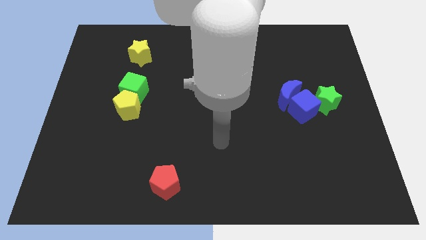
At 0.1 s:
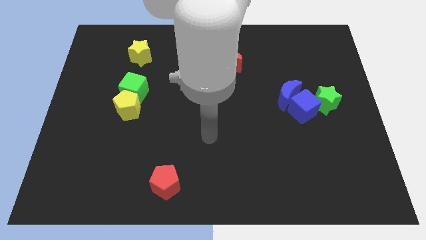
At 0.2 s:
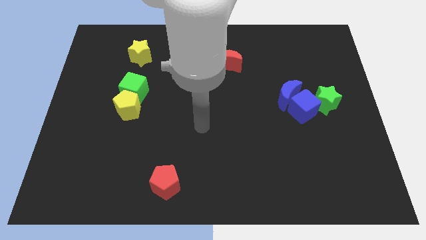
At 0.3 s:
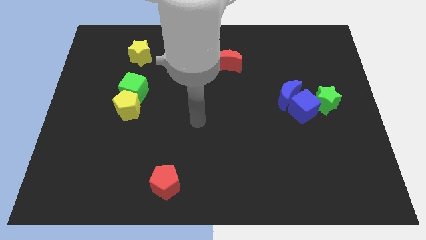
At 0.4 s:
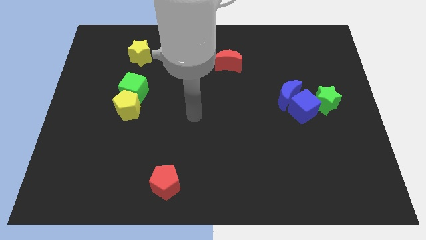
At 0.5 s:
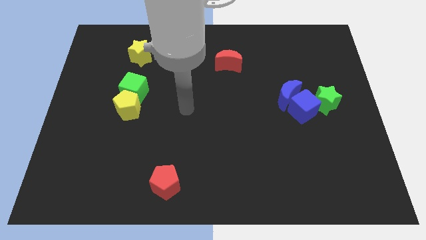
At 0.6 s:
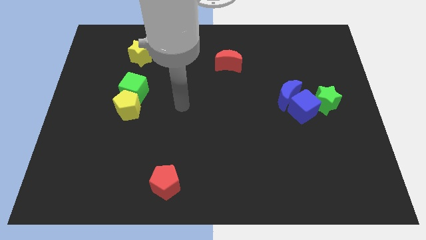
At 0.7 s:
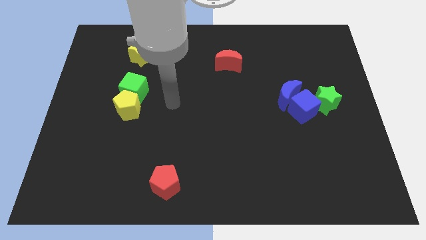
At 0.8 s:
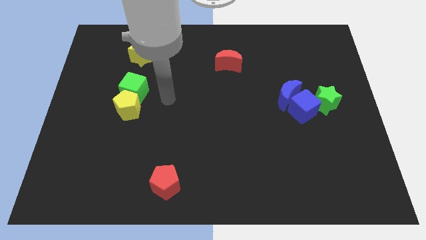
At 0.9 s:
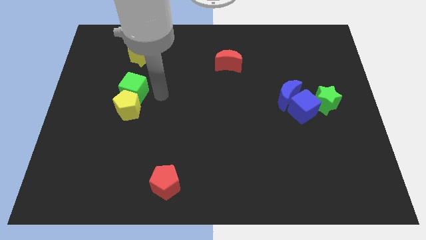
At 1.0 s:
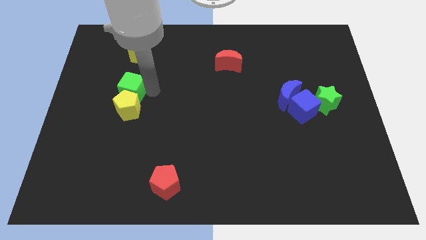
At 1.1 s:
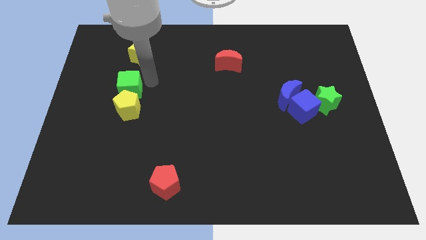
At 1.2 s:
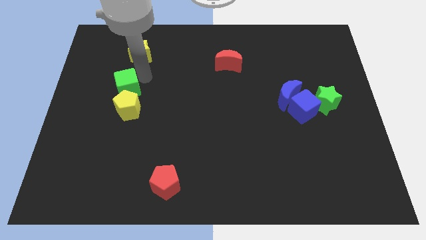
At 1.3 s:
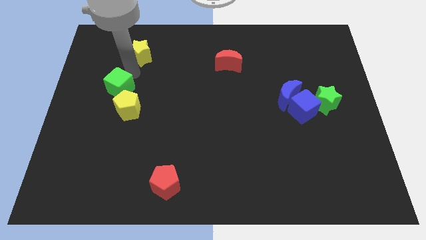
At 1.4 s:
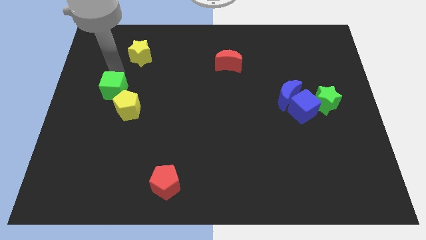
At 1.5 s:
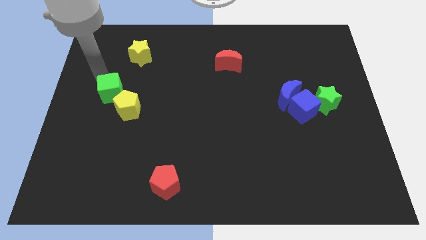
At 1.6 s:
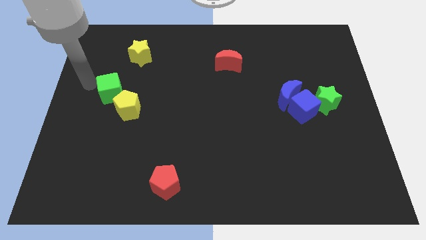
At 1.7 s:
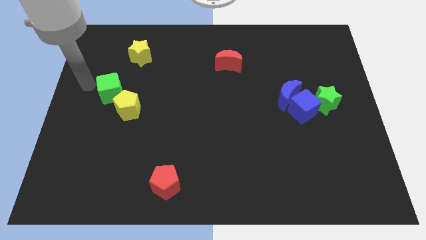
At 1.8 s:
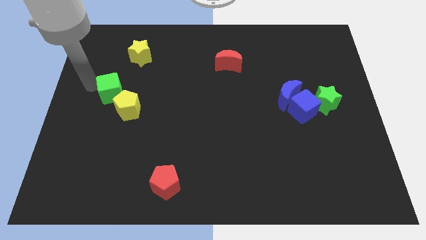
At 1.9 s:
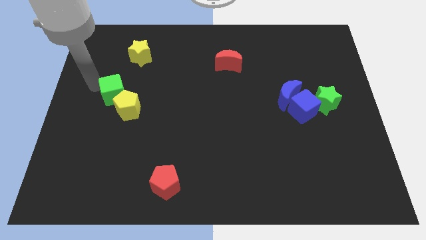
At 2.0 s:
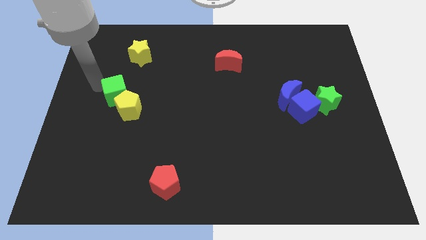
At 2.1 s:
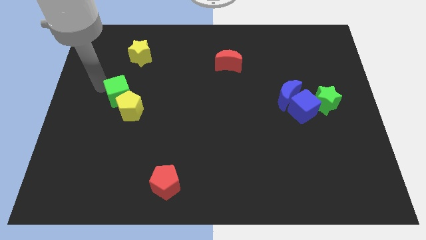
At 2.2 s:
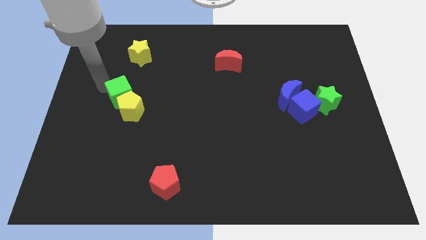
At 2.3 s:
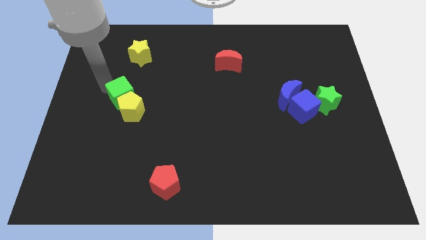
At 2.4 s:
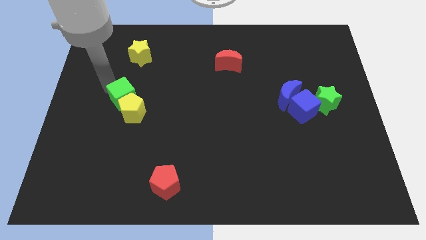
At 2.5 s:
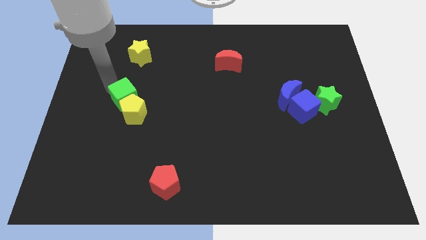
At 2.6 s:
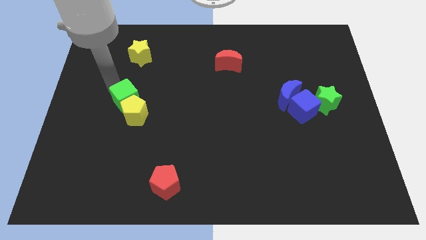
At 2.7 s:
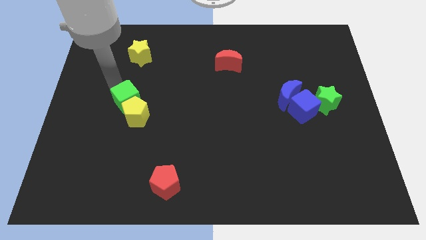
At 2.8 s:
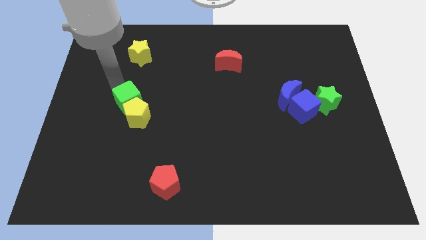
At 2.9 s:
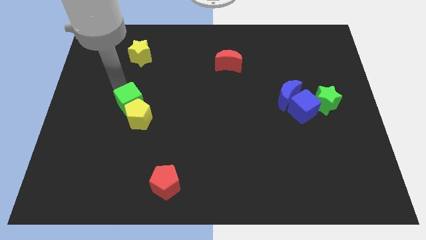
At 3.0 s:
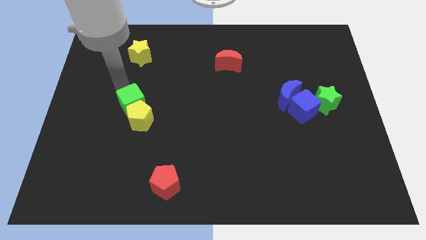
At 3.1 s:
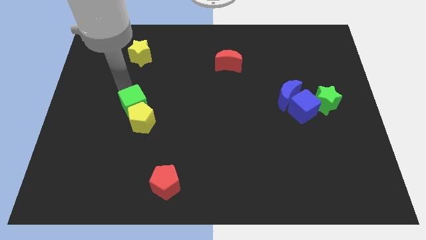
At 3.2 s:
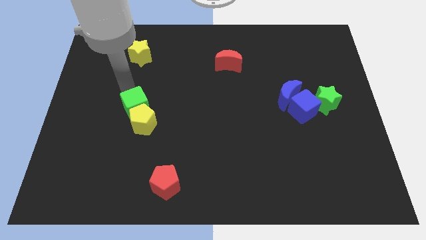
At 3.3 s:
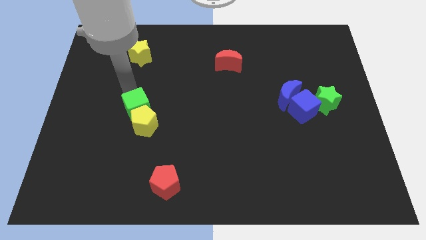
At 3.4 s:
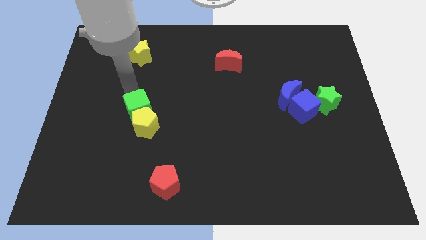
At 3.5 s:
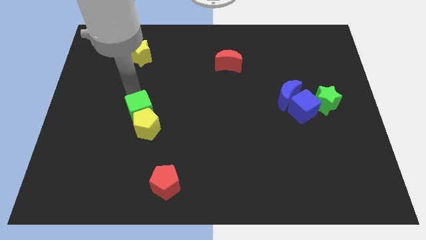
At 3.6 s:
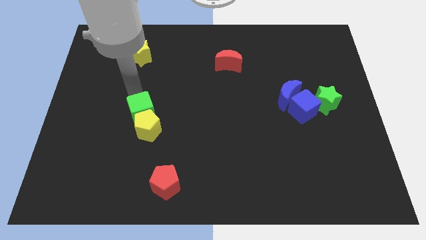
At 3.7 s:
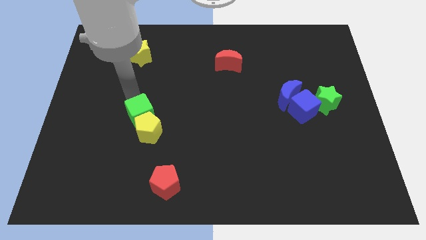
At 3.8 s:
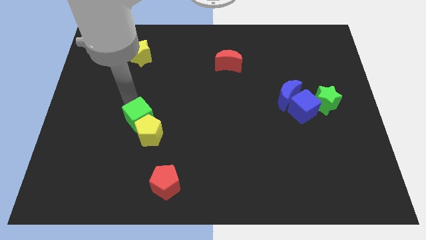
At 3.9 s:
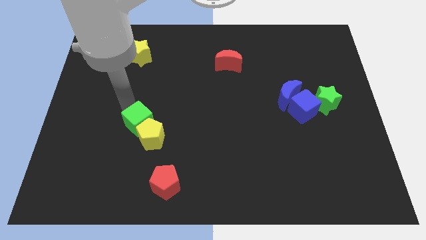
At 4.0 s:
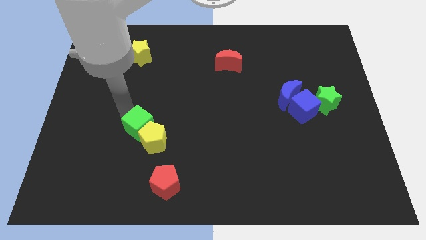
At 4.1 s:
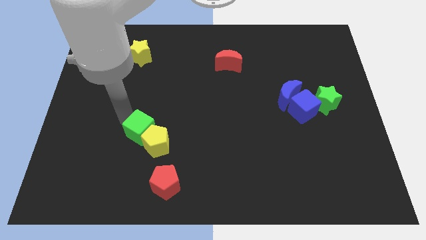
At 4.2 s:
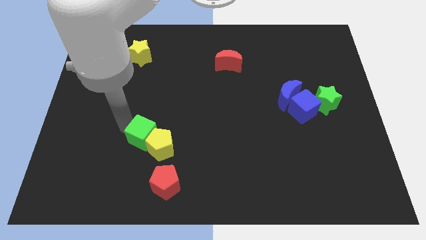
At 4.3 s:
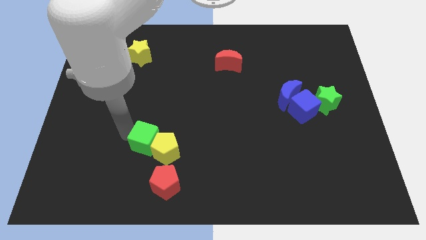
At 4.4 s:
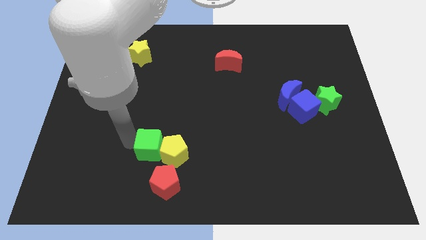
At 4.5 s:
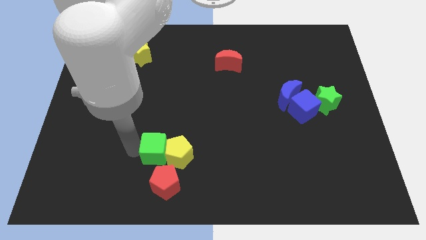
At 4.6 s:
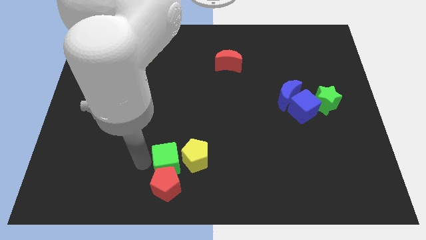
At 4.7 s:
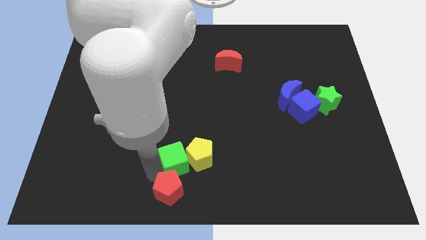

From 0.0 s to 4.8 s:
move the green cube downwards and right diagonally

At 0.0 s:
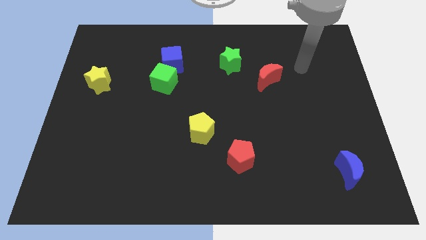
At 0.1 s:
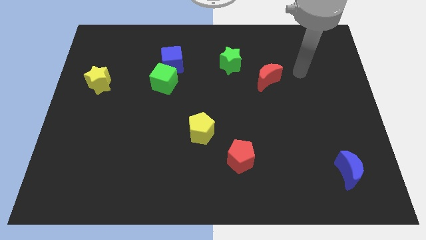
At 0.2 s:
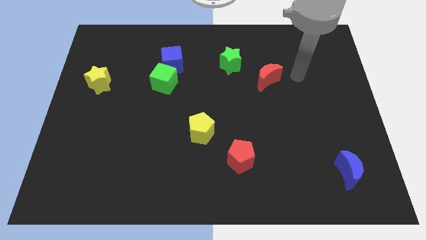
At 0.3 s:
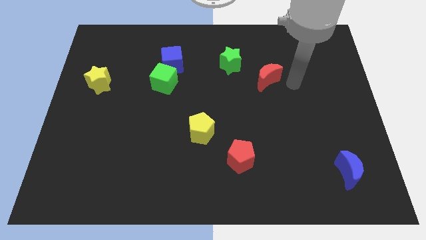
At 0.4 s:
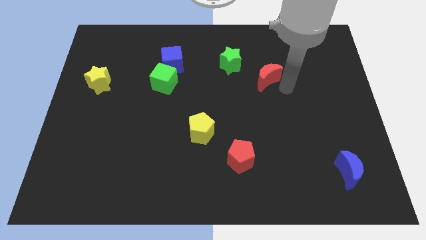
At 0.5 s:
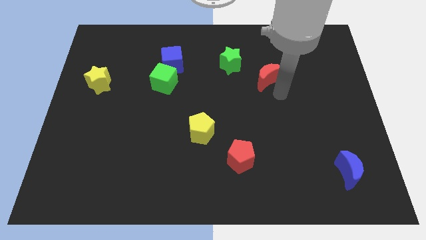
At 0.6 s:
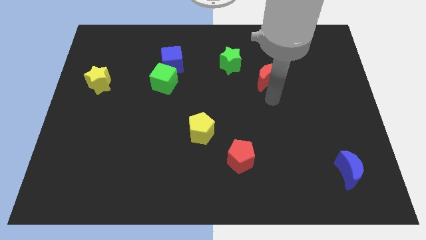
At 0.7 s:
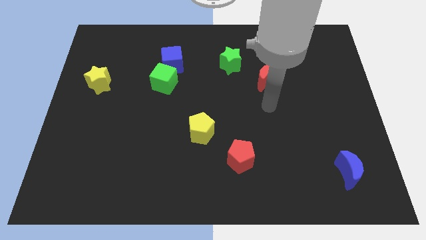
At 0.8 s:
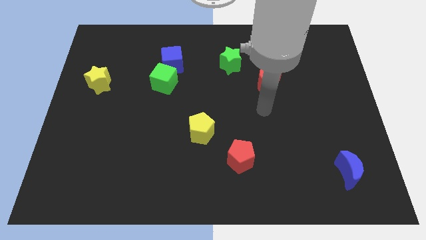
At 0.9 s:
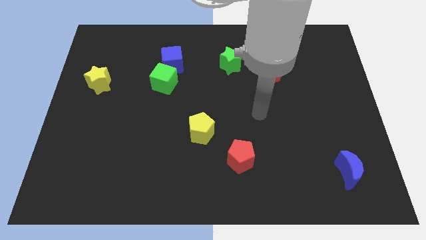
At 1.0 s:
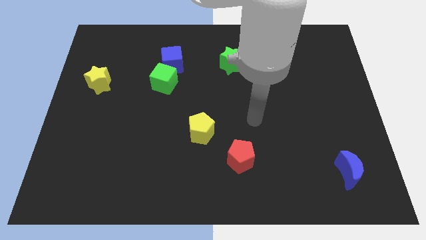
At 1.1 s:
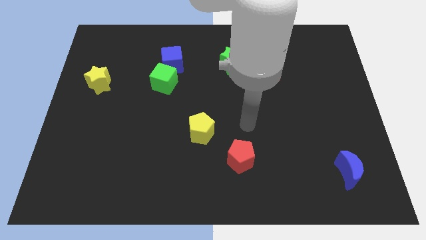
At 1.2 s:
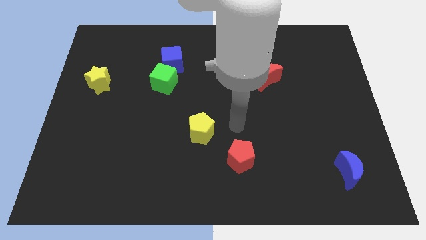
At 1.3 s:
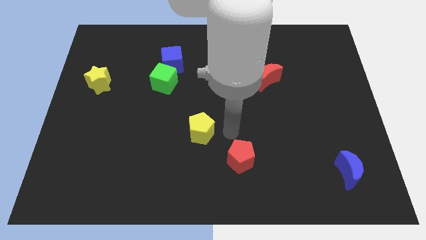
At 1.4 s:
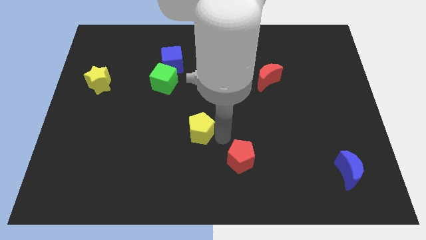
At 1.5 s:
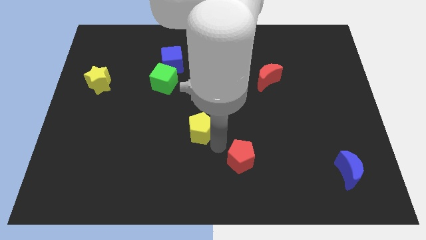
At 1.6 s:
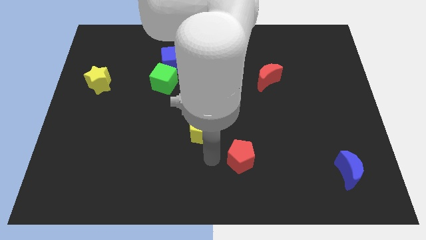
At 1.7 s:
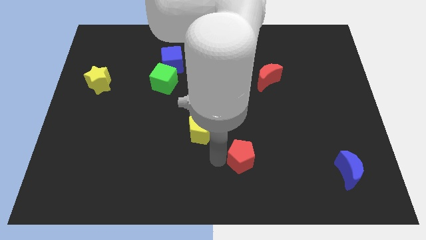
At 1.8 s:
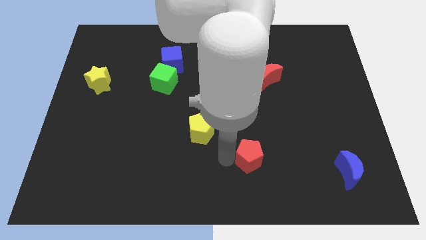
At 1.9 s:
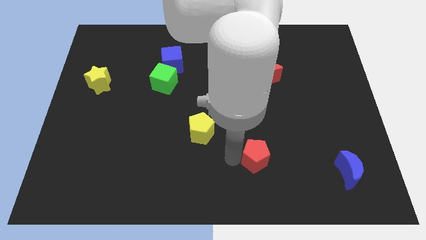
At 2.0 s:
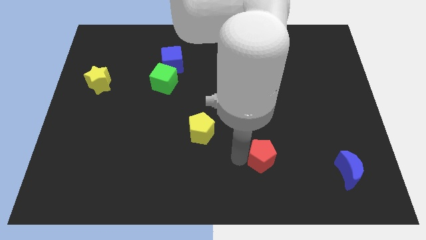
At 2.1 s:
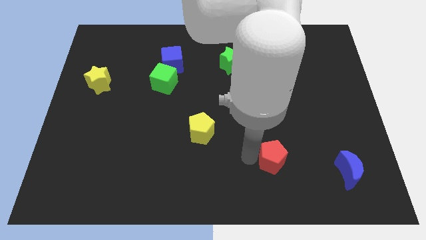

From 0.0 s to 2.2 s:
push the red pentagon right a little

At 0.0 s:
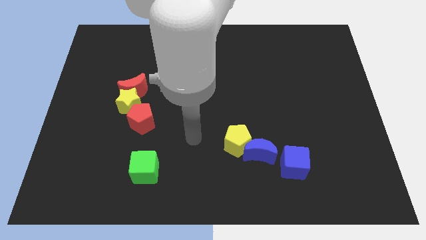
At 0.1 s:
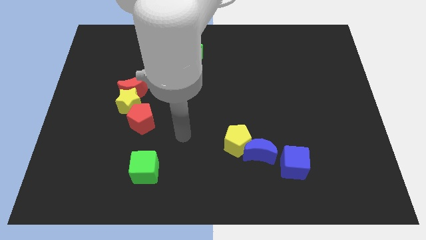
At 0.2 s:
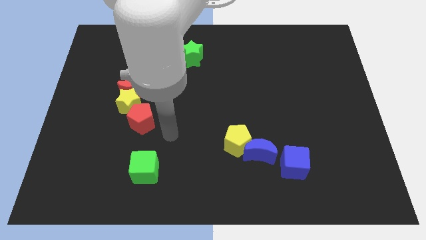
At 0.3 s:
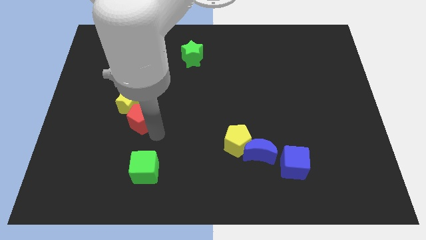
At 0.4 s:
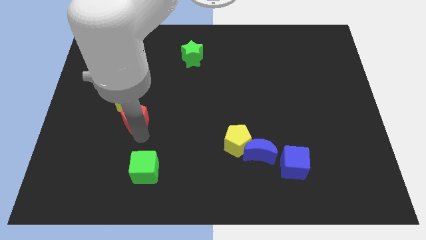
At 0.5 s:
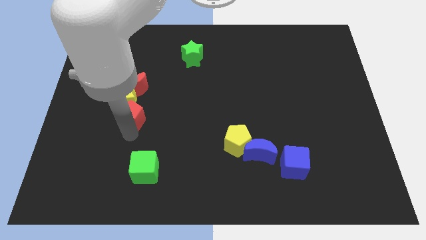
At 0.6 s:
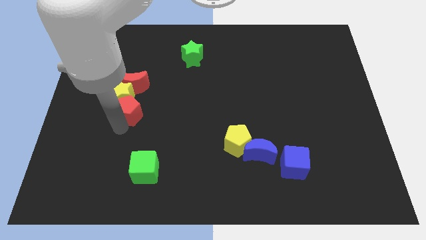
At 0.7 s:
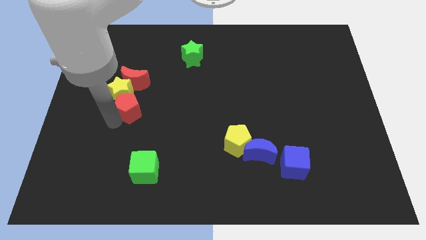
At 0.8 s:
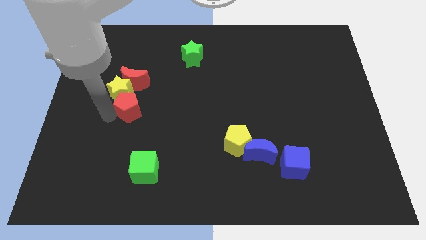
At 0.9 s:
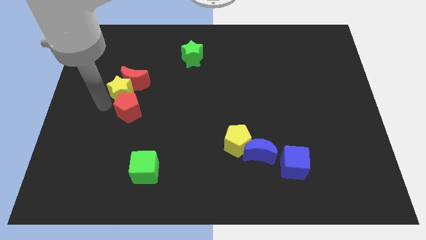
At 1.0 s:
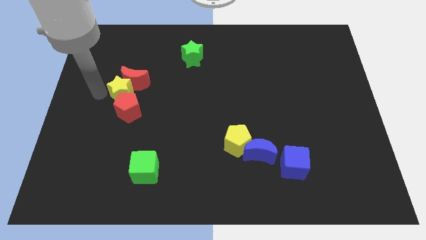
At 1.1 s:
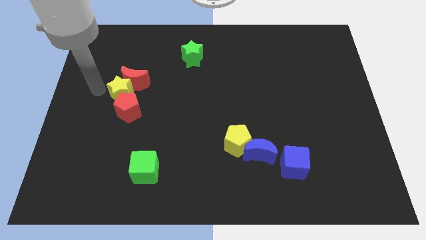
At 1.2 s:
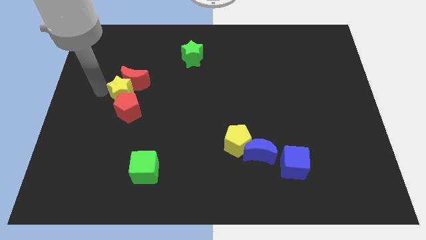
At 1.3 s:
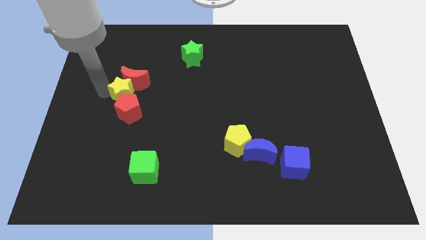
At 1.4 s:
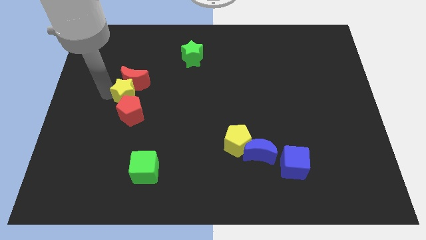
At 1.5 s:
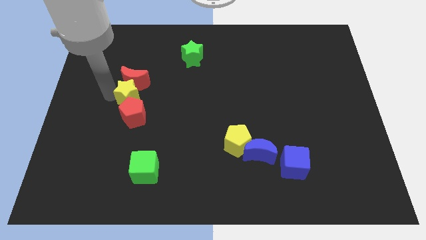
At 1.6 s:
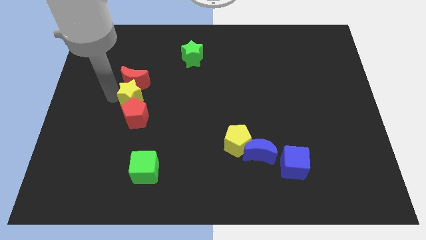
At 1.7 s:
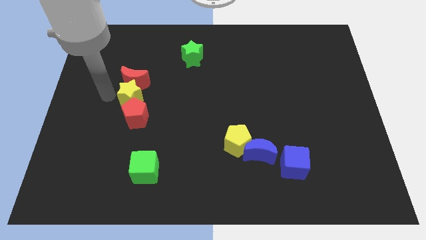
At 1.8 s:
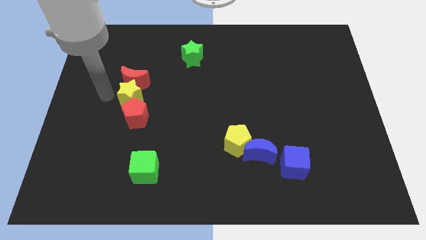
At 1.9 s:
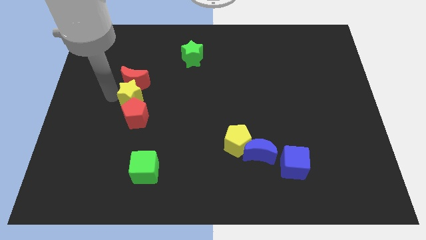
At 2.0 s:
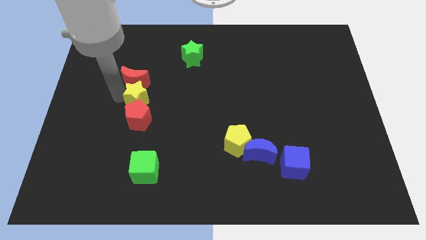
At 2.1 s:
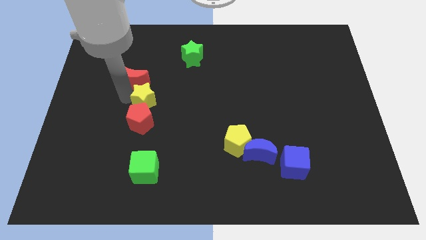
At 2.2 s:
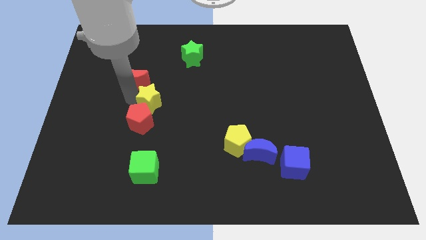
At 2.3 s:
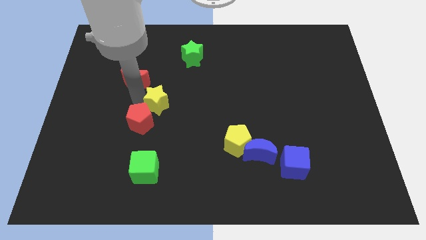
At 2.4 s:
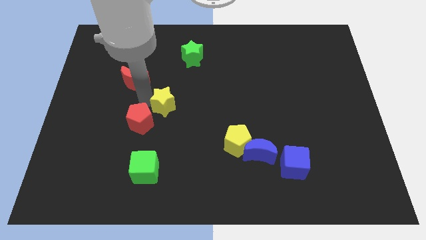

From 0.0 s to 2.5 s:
slide the yellow star a bit to the right
